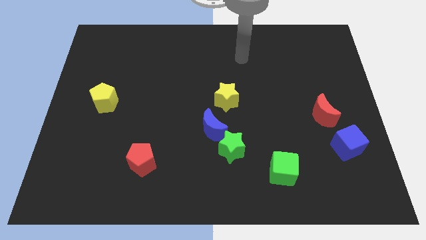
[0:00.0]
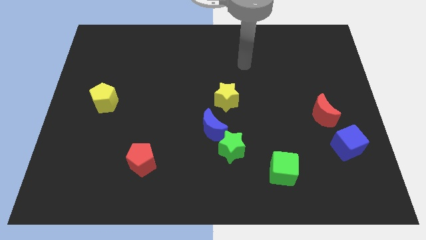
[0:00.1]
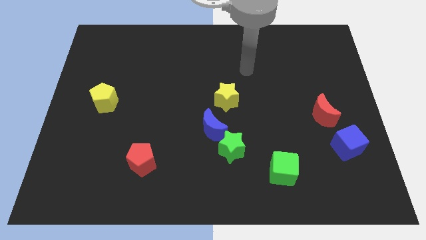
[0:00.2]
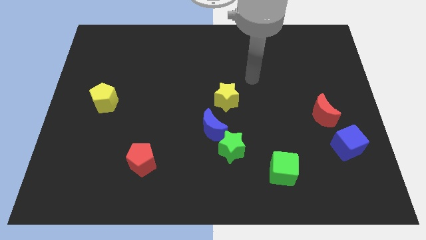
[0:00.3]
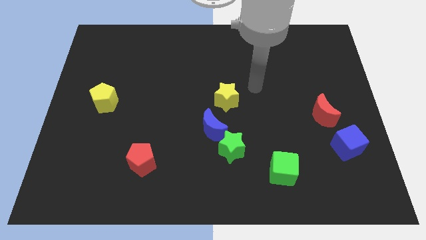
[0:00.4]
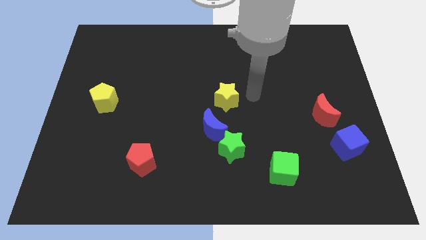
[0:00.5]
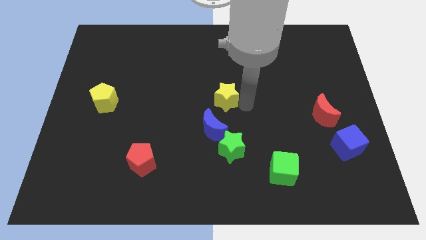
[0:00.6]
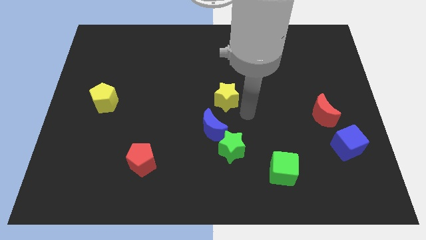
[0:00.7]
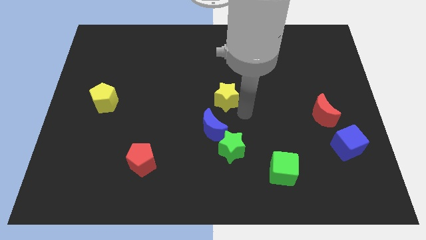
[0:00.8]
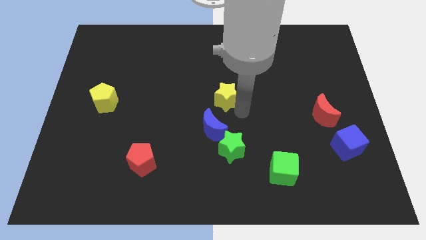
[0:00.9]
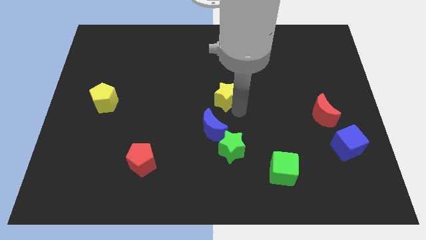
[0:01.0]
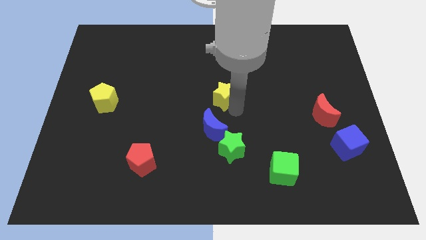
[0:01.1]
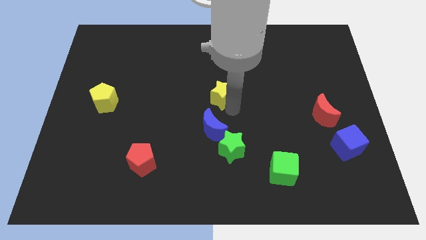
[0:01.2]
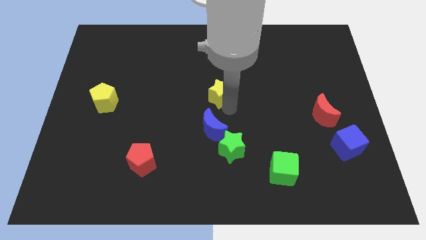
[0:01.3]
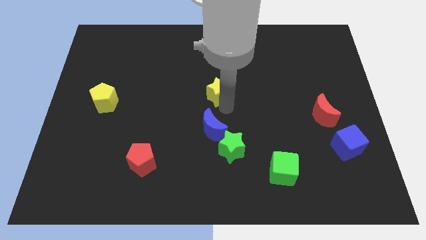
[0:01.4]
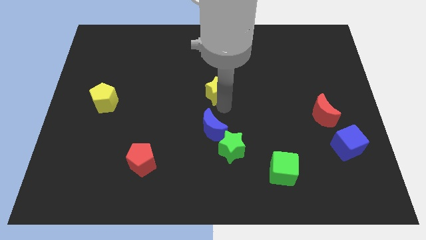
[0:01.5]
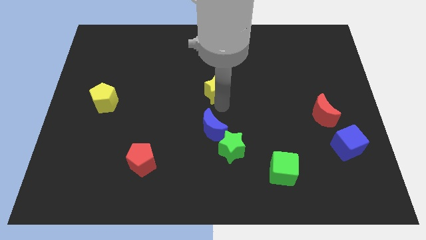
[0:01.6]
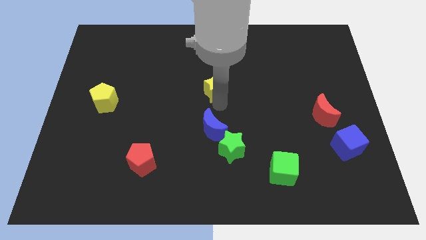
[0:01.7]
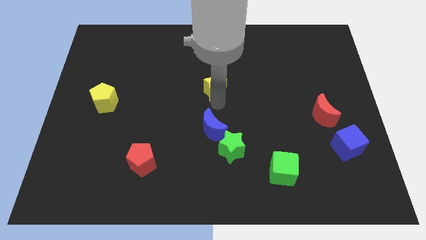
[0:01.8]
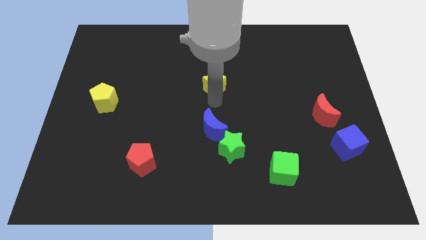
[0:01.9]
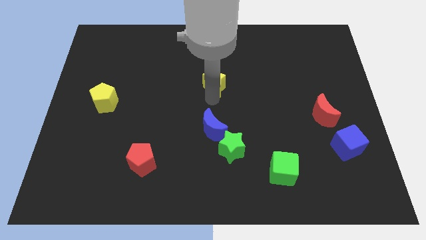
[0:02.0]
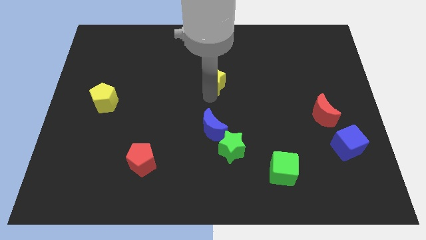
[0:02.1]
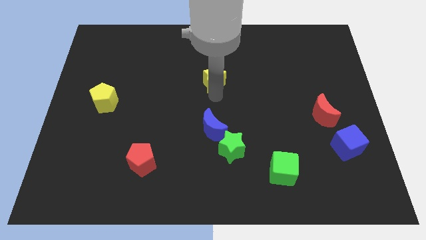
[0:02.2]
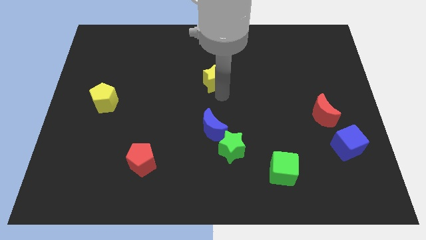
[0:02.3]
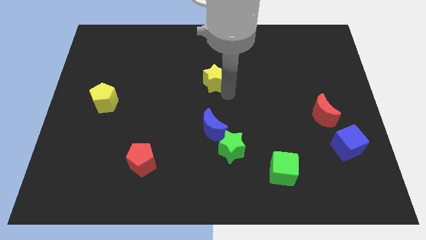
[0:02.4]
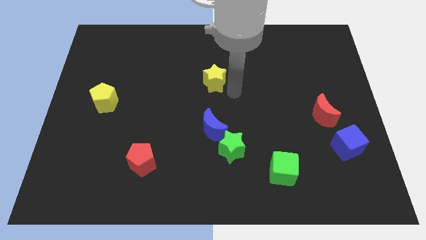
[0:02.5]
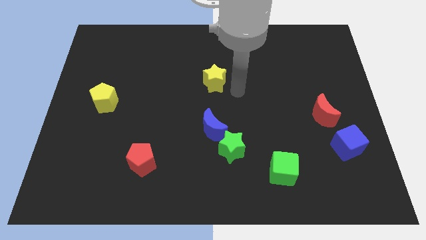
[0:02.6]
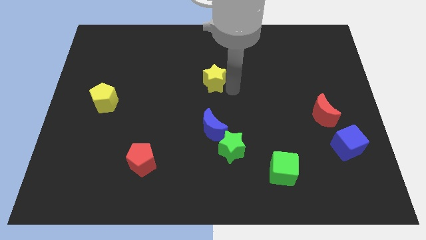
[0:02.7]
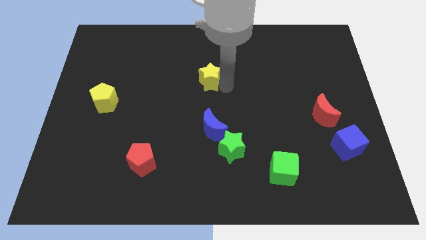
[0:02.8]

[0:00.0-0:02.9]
move the yellow star up and left a bit

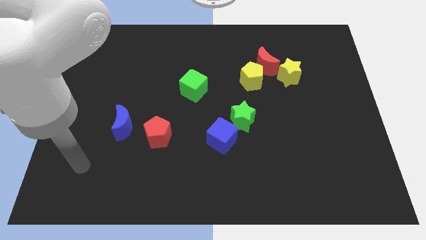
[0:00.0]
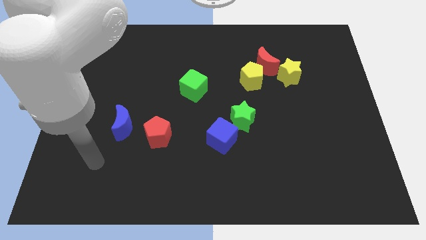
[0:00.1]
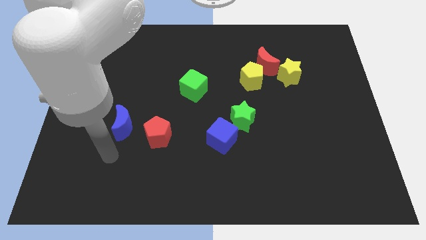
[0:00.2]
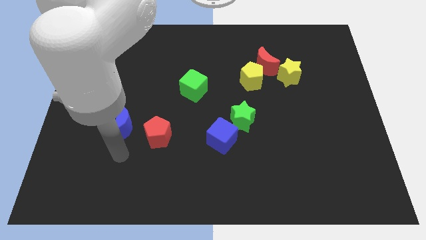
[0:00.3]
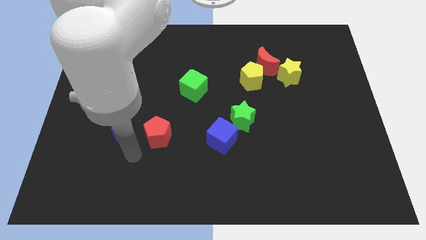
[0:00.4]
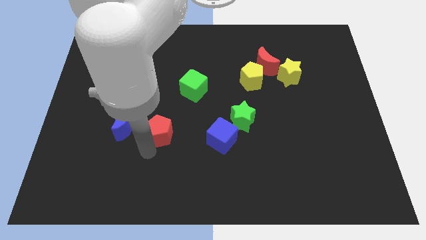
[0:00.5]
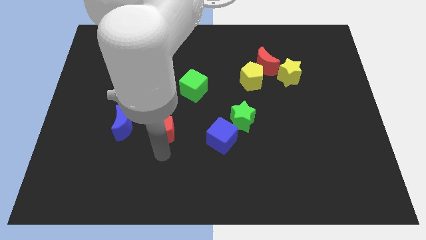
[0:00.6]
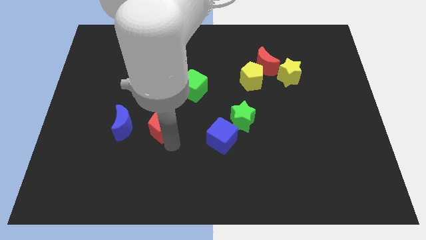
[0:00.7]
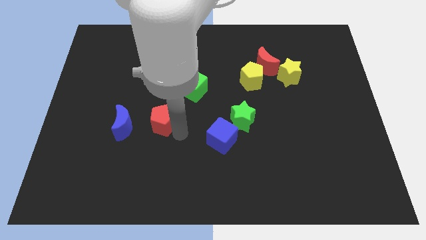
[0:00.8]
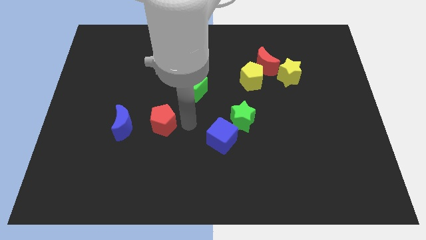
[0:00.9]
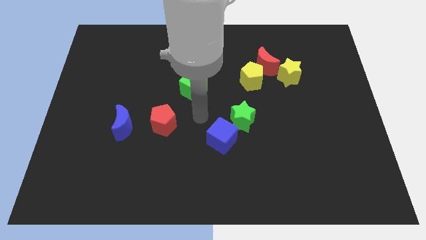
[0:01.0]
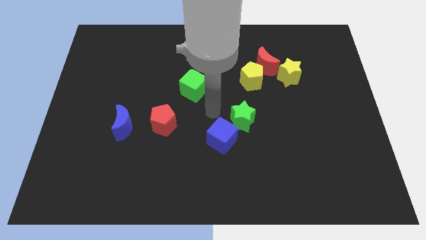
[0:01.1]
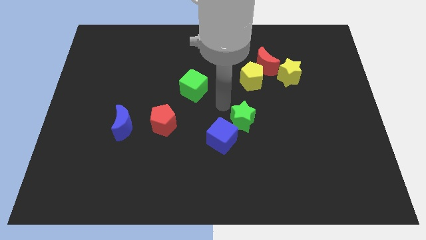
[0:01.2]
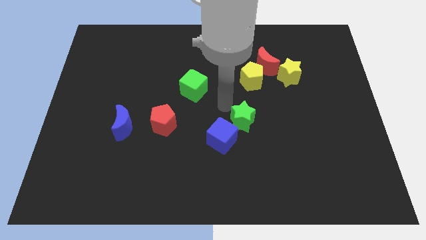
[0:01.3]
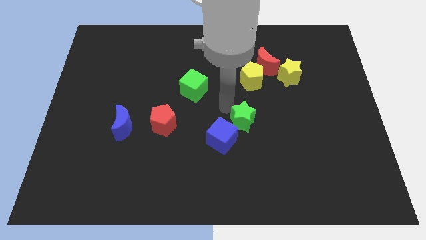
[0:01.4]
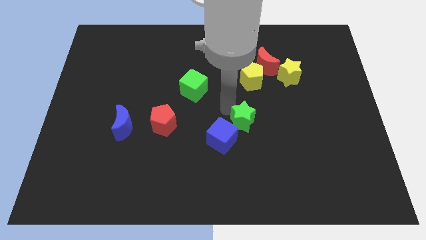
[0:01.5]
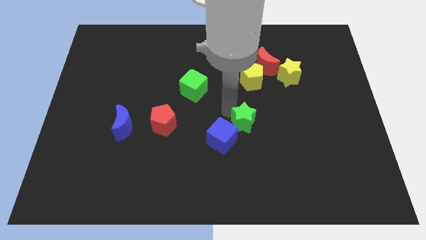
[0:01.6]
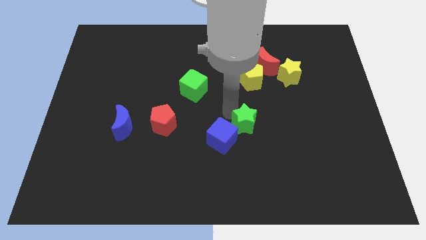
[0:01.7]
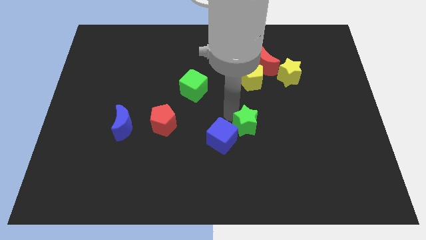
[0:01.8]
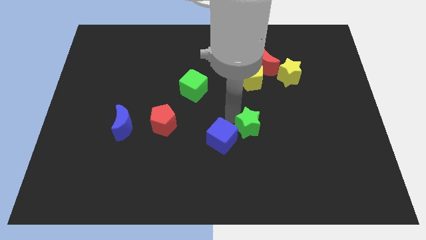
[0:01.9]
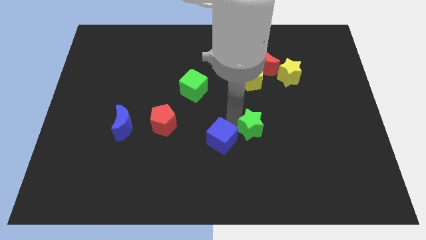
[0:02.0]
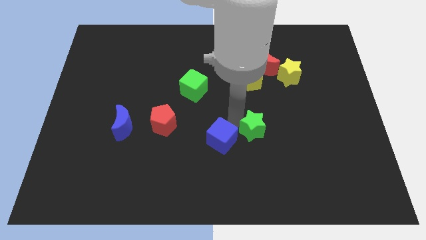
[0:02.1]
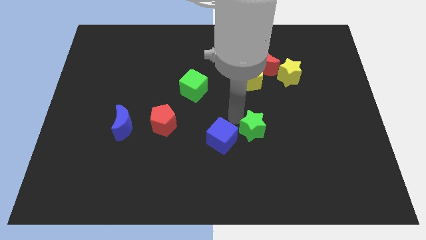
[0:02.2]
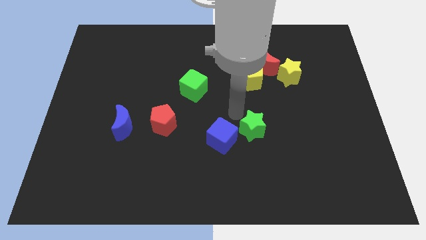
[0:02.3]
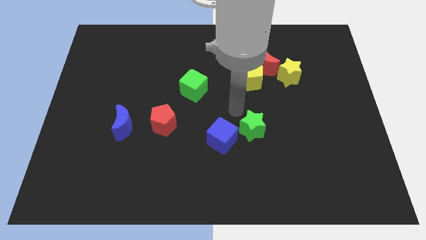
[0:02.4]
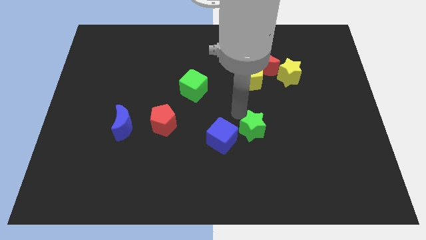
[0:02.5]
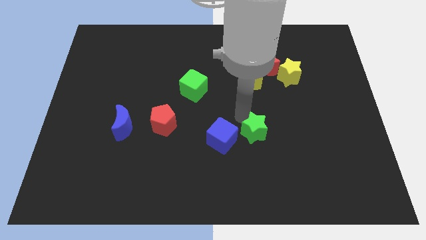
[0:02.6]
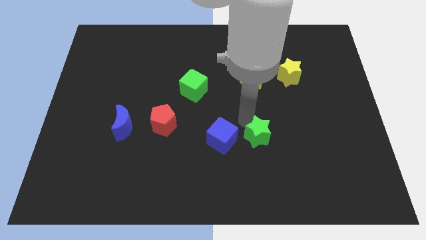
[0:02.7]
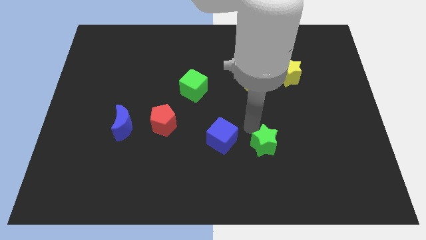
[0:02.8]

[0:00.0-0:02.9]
move the green star a little down and then to the right

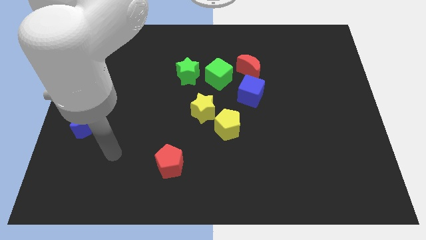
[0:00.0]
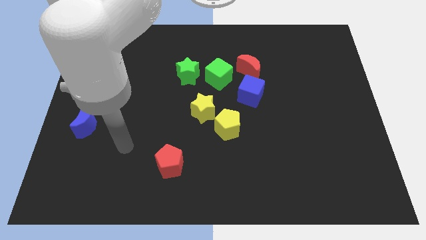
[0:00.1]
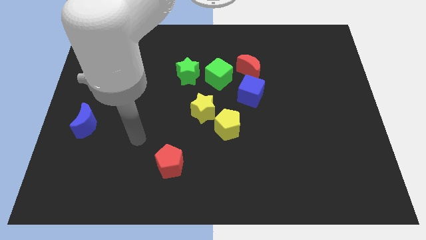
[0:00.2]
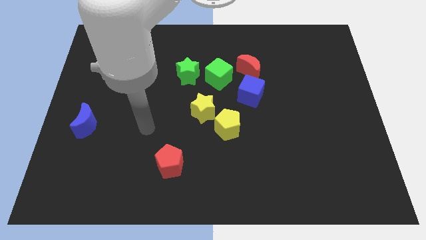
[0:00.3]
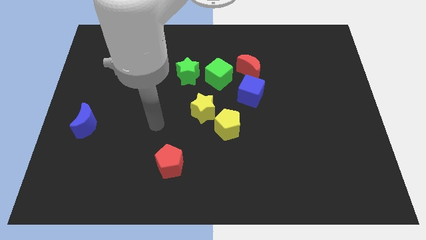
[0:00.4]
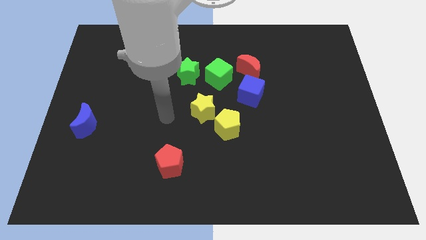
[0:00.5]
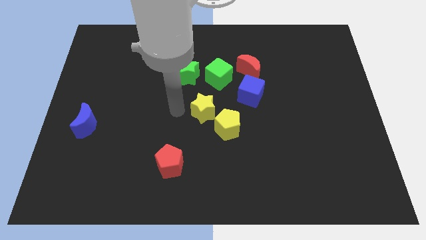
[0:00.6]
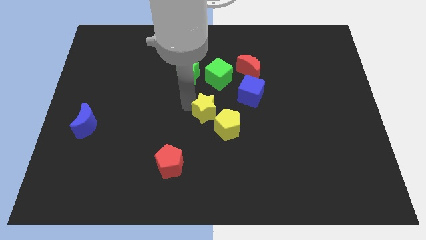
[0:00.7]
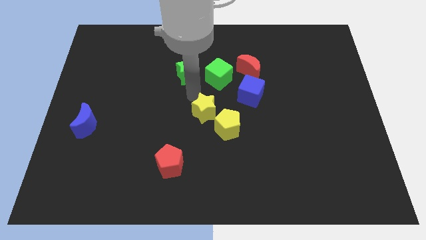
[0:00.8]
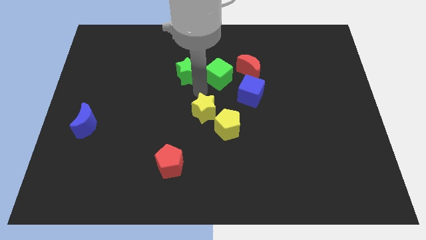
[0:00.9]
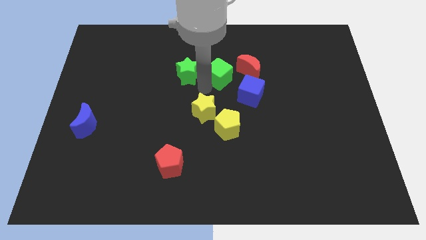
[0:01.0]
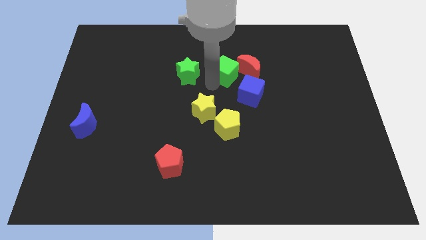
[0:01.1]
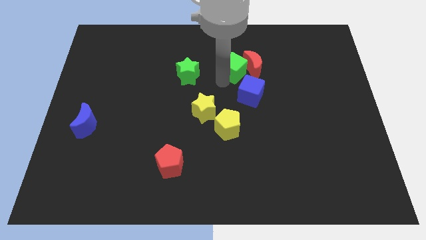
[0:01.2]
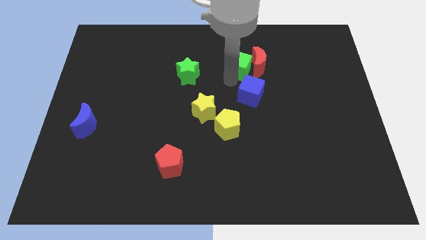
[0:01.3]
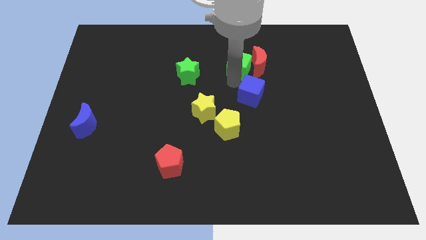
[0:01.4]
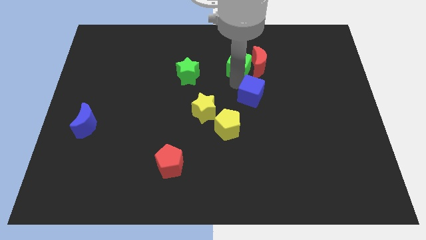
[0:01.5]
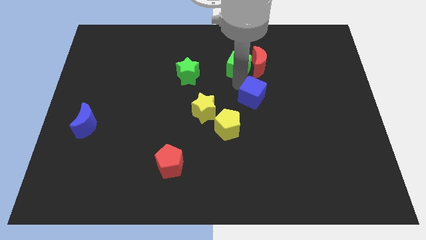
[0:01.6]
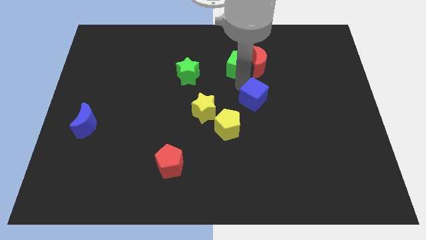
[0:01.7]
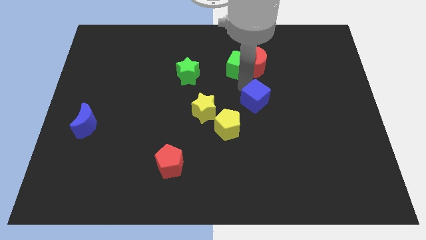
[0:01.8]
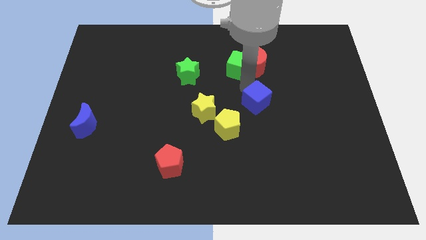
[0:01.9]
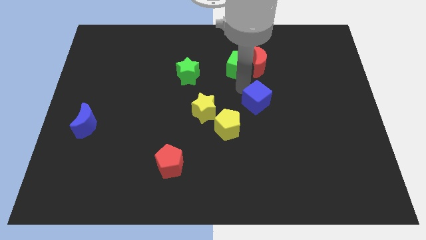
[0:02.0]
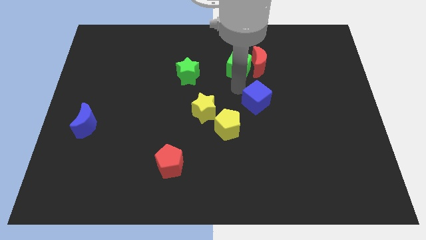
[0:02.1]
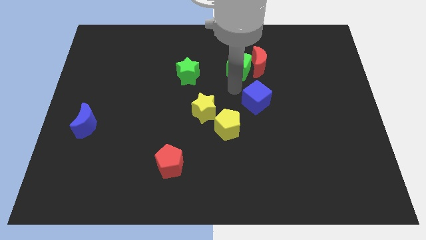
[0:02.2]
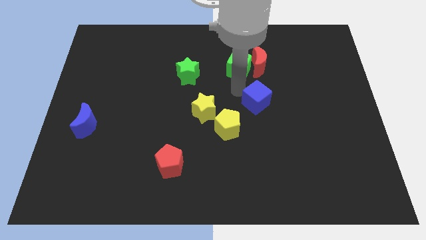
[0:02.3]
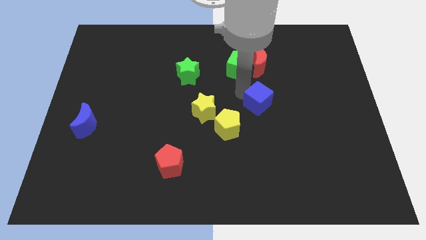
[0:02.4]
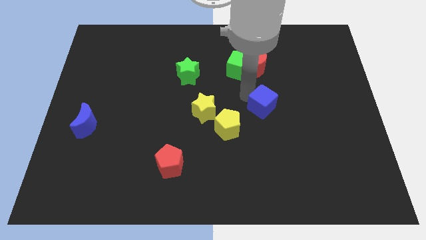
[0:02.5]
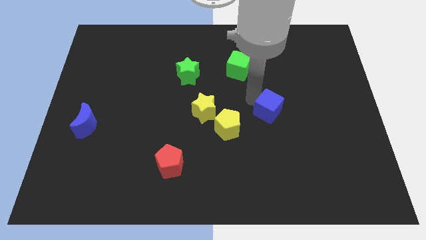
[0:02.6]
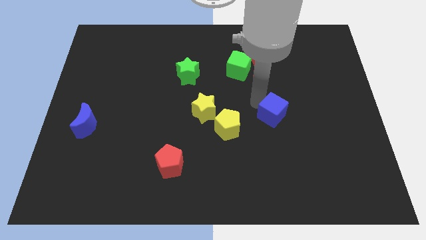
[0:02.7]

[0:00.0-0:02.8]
move the blue cube down and then to the right a bit
